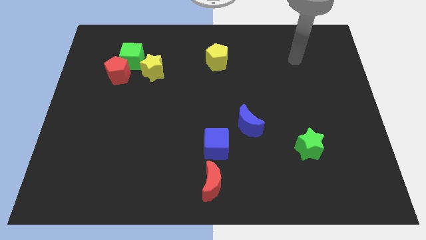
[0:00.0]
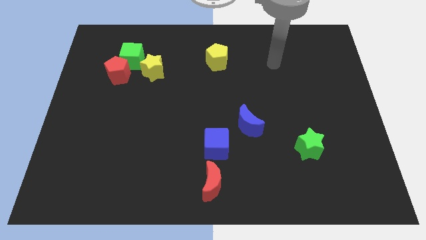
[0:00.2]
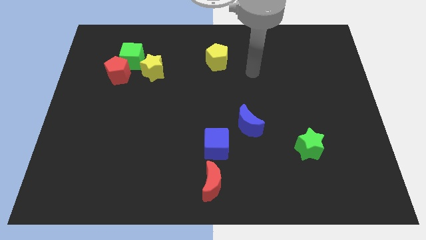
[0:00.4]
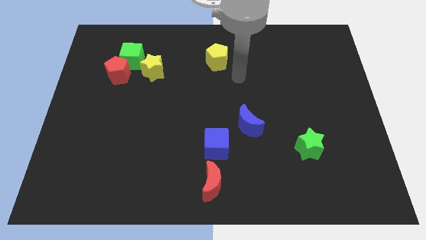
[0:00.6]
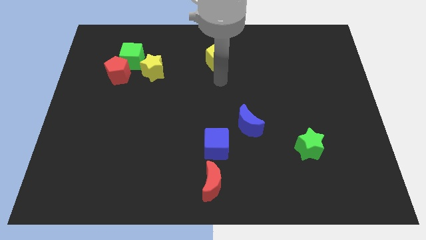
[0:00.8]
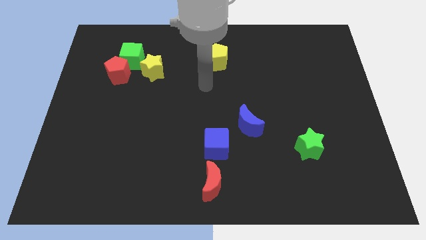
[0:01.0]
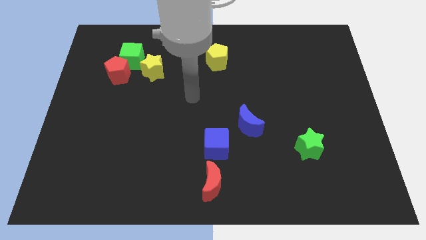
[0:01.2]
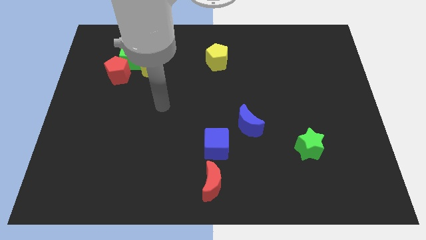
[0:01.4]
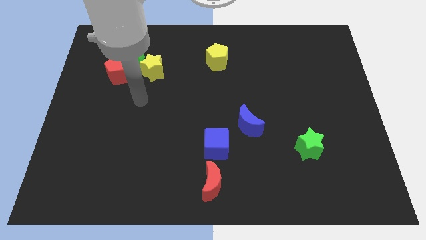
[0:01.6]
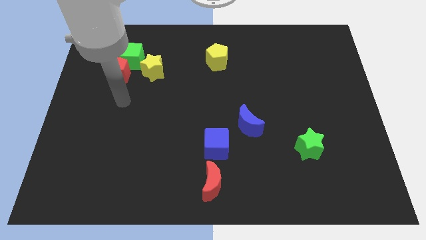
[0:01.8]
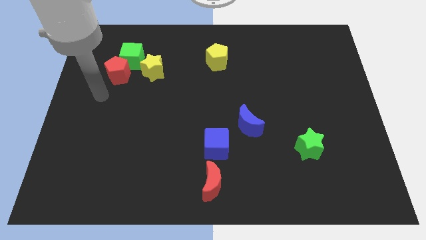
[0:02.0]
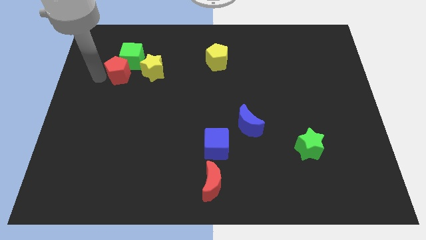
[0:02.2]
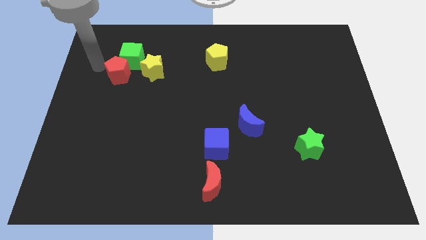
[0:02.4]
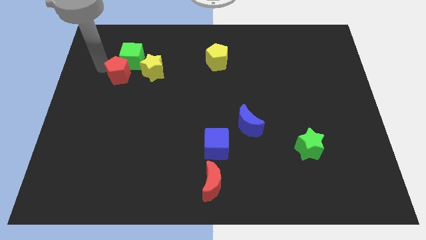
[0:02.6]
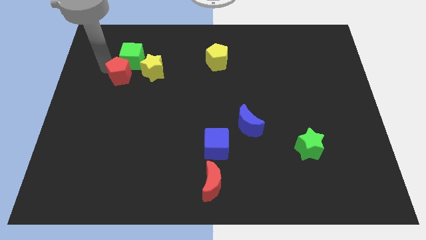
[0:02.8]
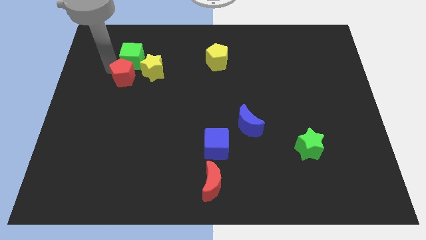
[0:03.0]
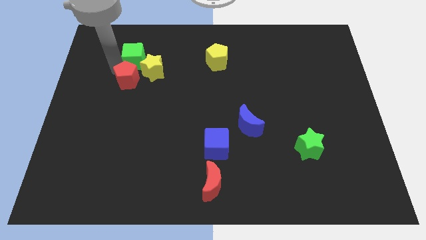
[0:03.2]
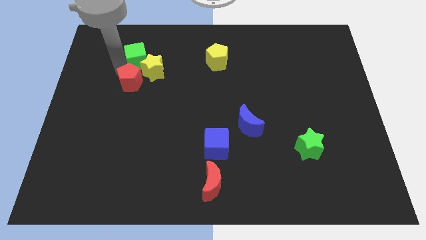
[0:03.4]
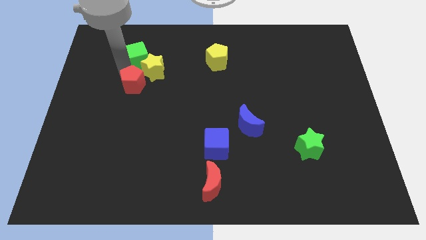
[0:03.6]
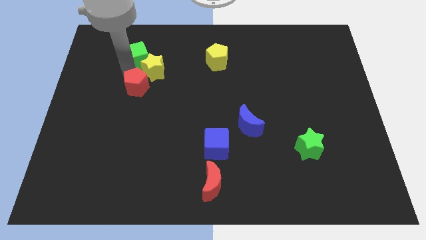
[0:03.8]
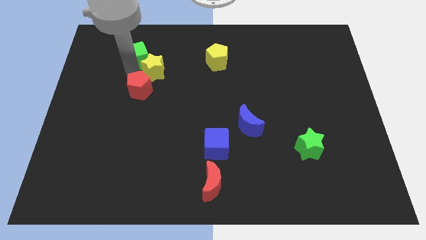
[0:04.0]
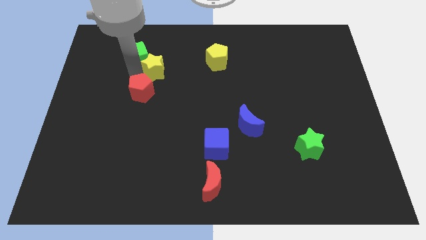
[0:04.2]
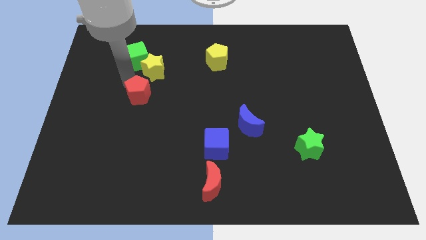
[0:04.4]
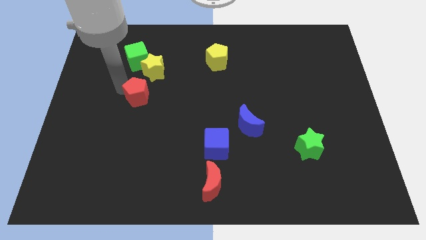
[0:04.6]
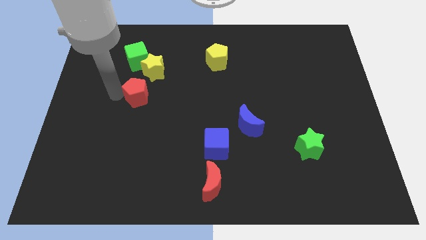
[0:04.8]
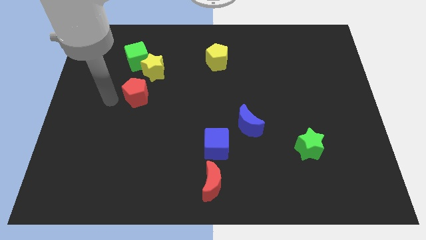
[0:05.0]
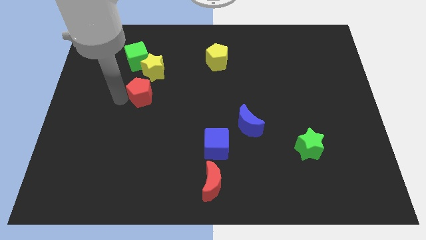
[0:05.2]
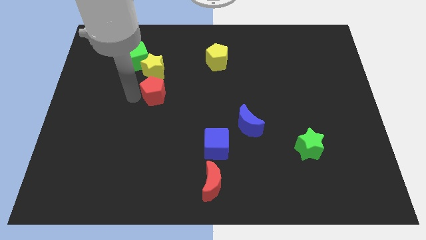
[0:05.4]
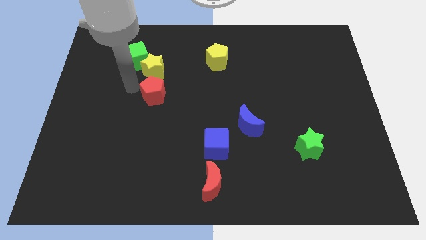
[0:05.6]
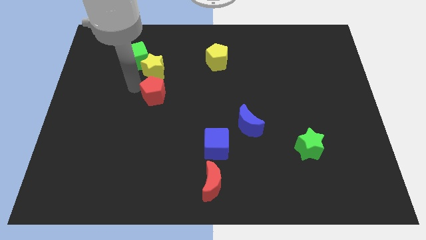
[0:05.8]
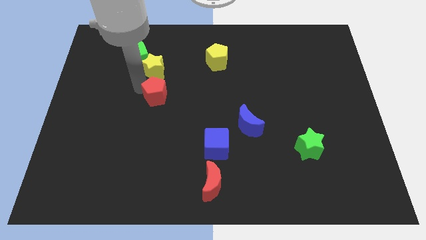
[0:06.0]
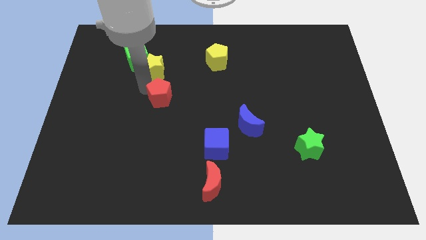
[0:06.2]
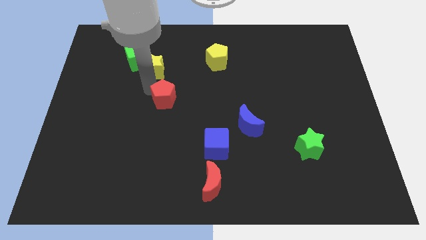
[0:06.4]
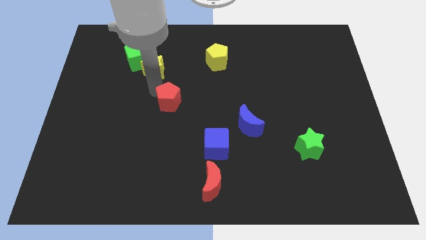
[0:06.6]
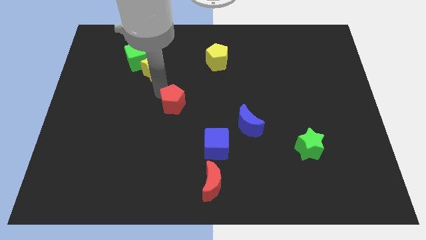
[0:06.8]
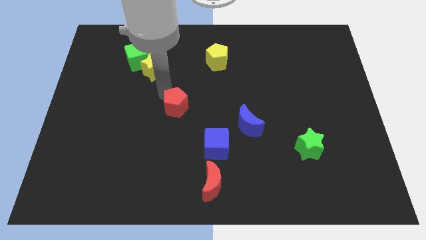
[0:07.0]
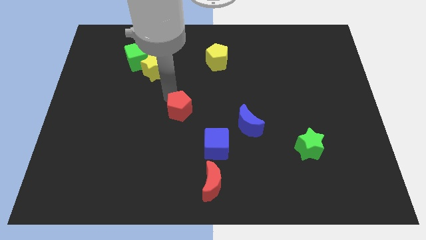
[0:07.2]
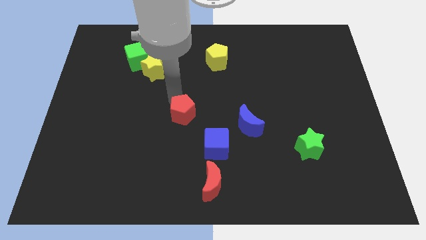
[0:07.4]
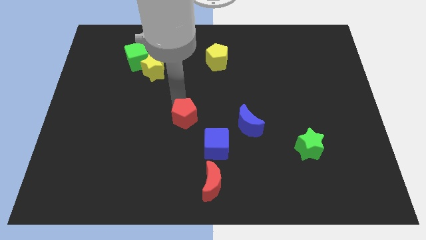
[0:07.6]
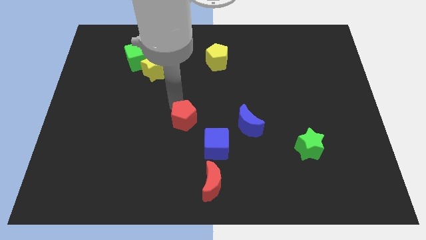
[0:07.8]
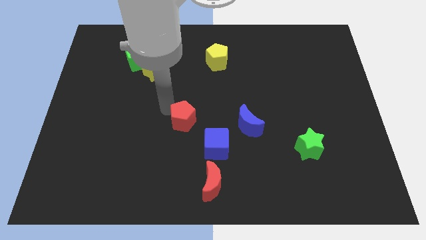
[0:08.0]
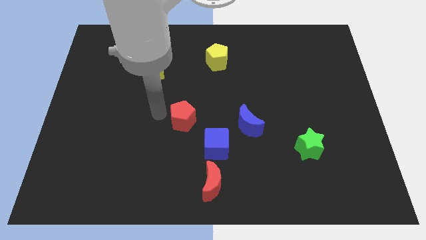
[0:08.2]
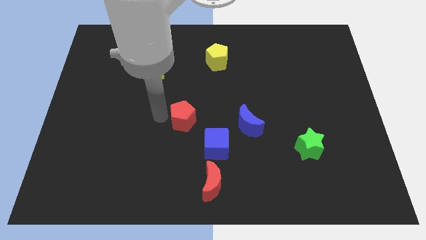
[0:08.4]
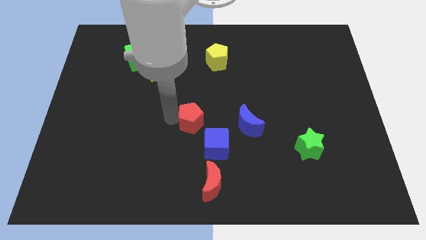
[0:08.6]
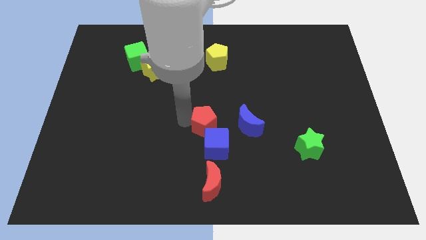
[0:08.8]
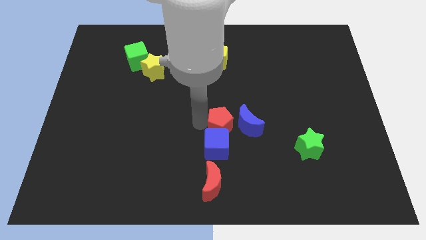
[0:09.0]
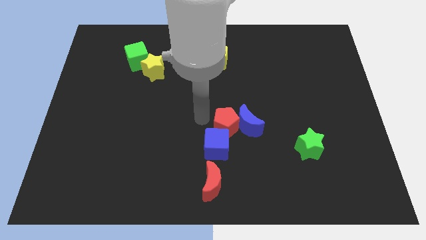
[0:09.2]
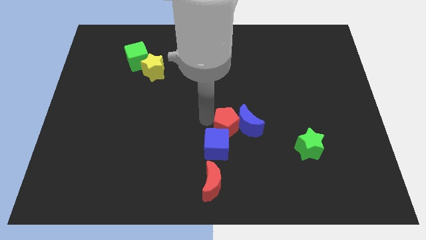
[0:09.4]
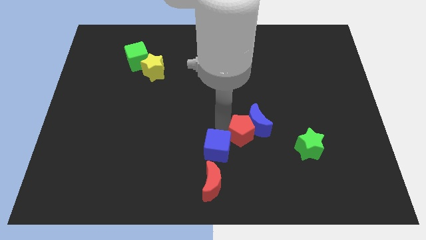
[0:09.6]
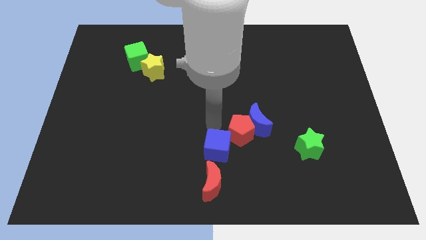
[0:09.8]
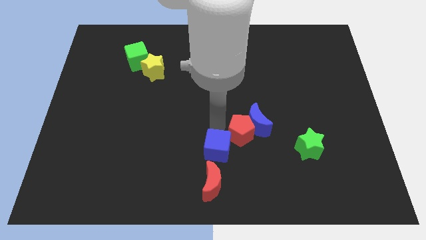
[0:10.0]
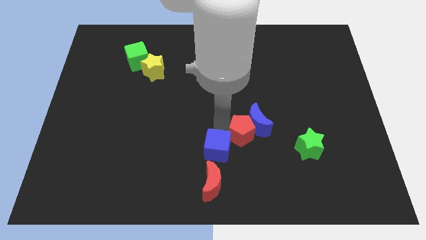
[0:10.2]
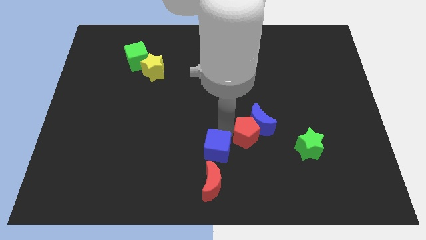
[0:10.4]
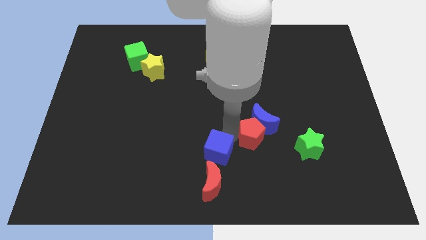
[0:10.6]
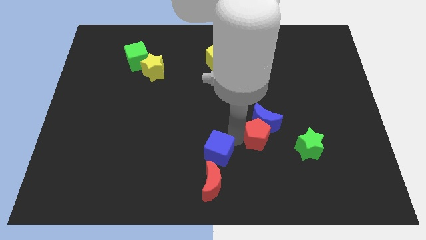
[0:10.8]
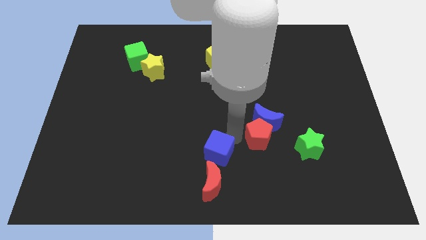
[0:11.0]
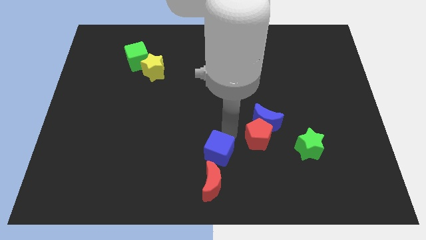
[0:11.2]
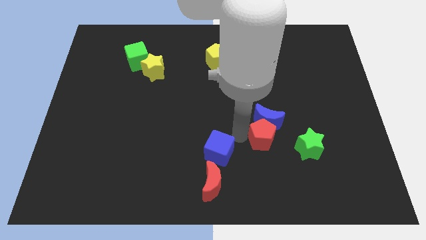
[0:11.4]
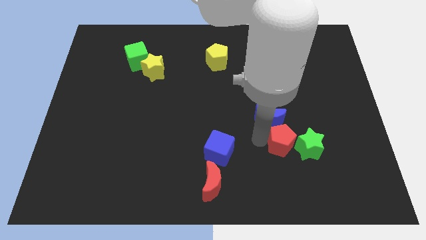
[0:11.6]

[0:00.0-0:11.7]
slide the red pentagon towards the green star

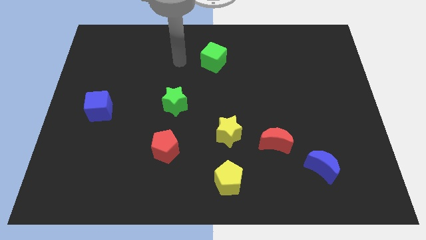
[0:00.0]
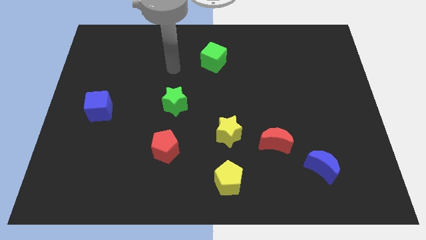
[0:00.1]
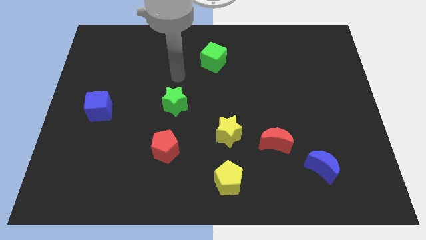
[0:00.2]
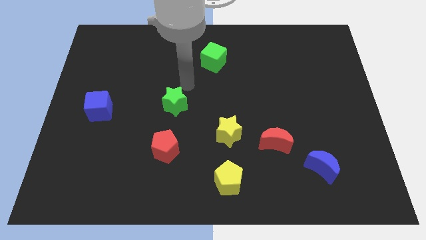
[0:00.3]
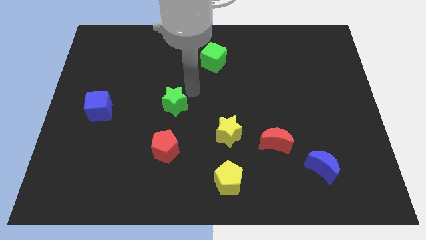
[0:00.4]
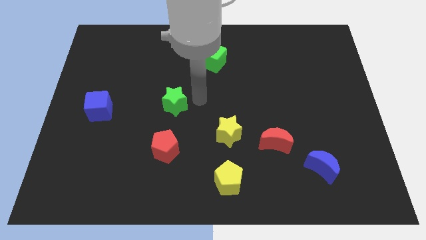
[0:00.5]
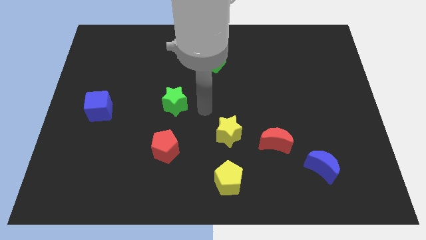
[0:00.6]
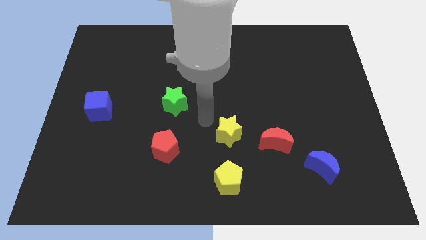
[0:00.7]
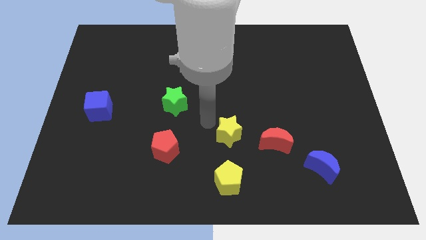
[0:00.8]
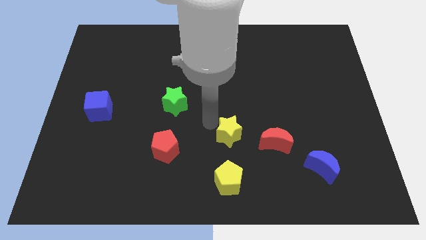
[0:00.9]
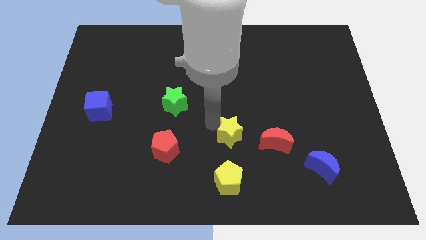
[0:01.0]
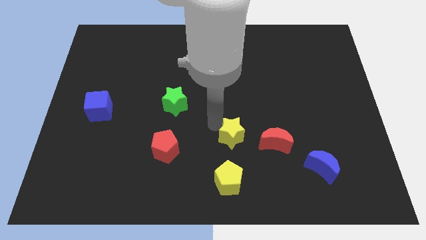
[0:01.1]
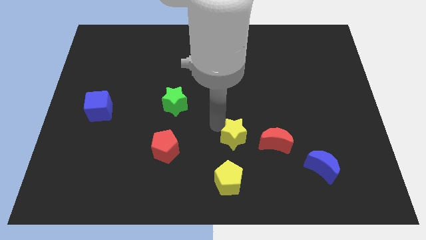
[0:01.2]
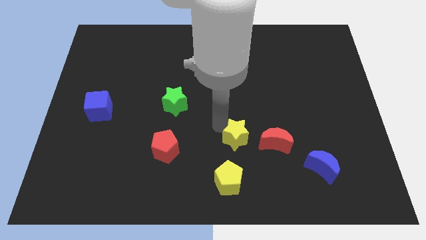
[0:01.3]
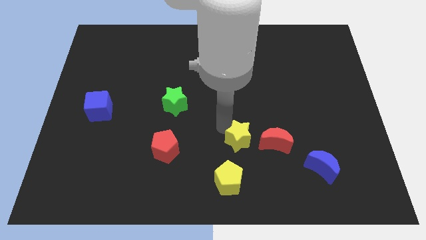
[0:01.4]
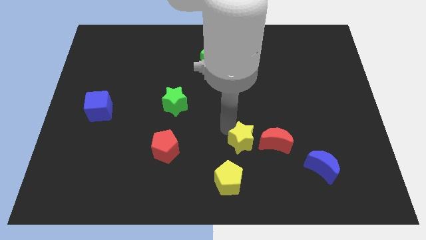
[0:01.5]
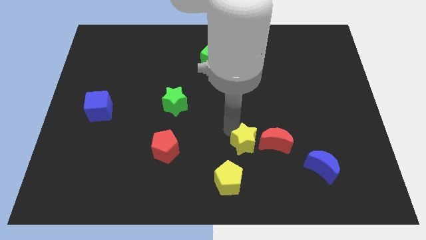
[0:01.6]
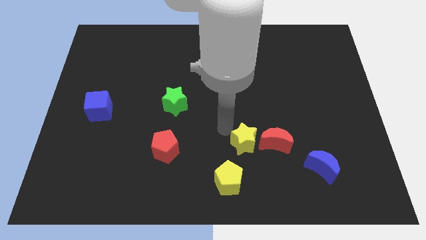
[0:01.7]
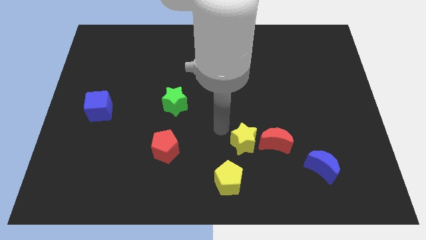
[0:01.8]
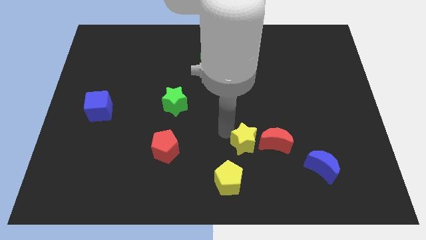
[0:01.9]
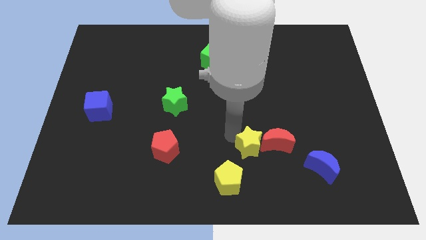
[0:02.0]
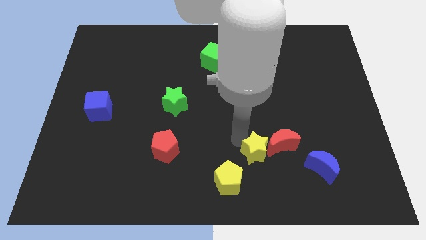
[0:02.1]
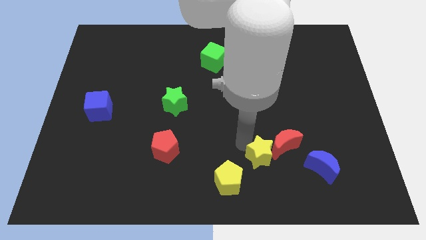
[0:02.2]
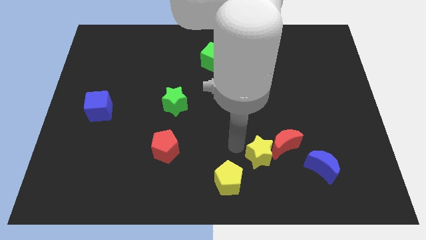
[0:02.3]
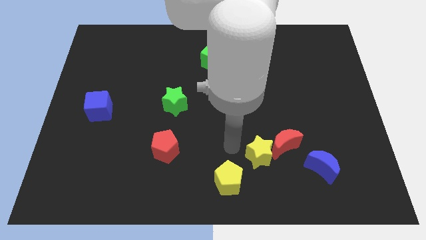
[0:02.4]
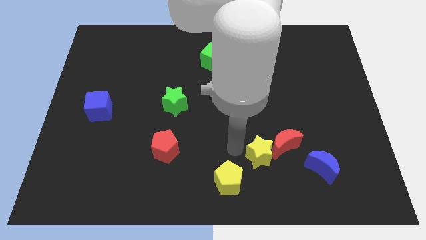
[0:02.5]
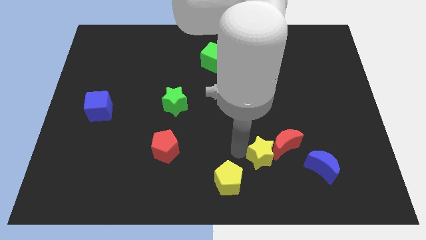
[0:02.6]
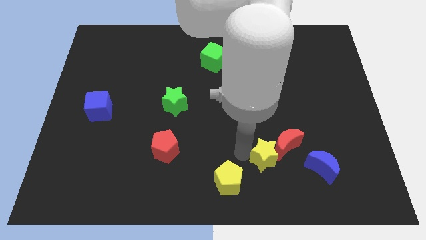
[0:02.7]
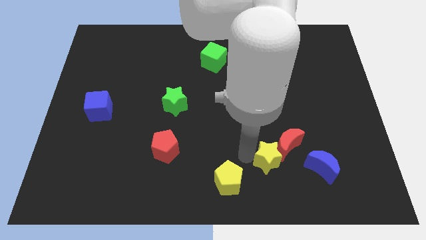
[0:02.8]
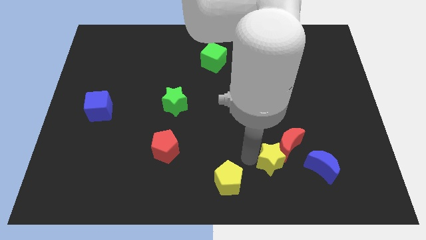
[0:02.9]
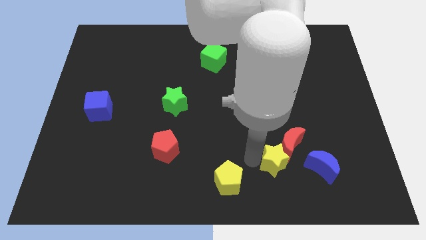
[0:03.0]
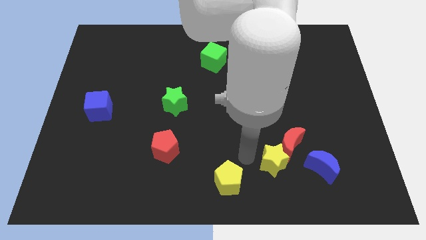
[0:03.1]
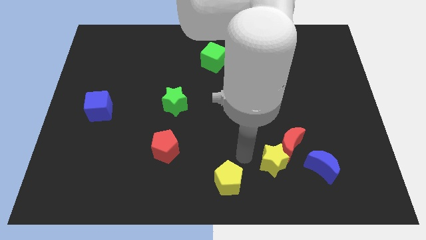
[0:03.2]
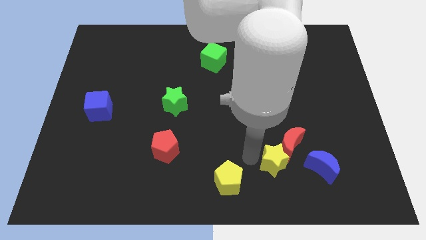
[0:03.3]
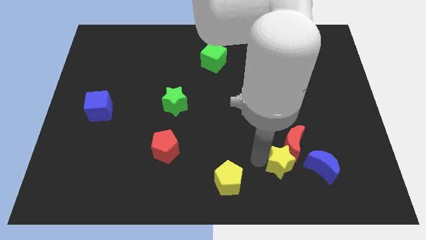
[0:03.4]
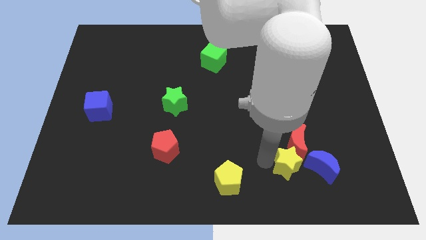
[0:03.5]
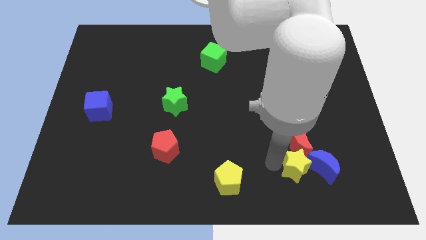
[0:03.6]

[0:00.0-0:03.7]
move the yellow star next to the blue moon
